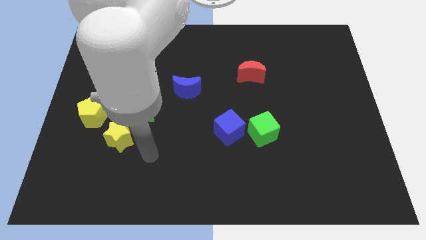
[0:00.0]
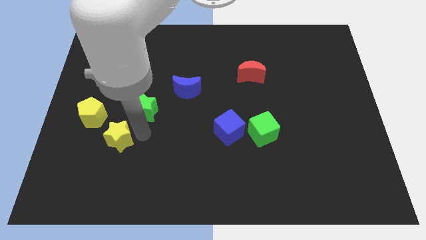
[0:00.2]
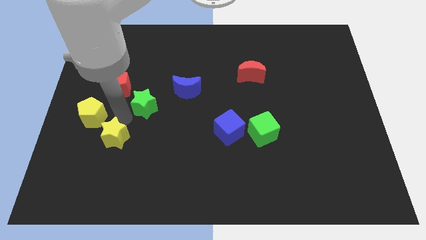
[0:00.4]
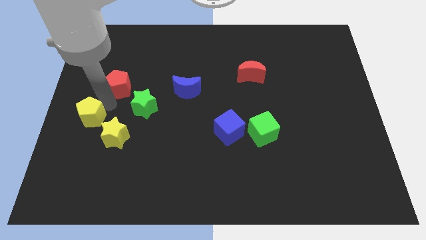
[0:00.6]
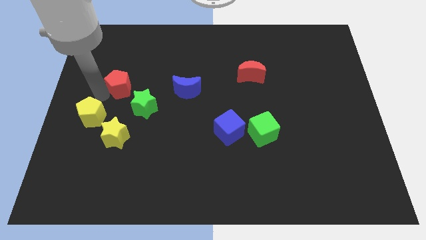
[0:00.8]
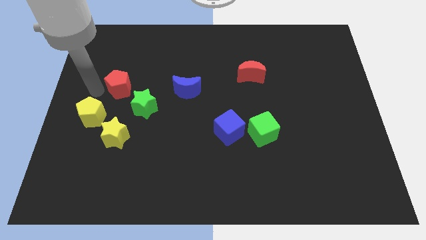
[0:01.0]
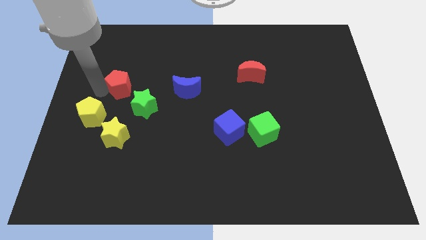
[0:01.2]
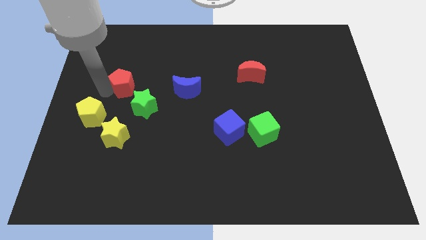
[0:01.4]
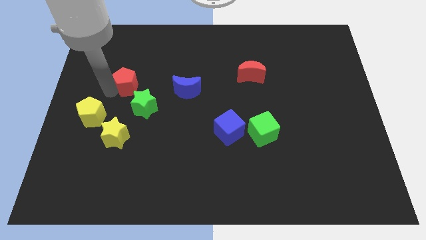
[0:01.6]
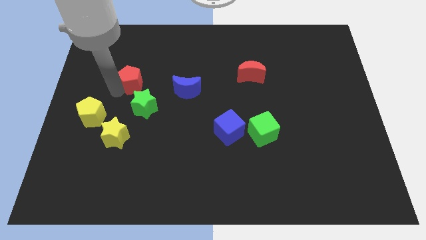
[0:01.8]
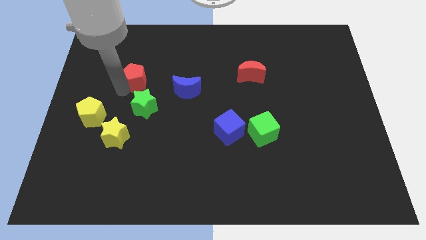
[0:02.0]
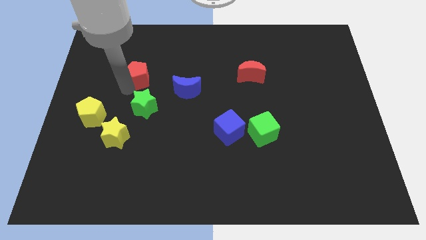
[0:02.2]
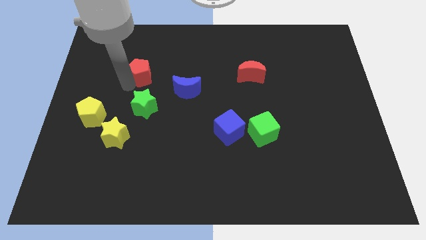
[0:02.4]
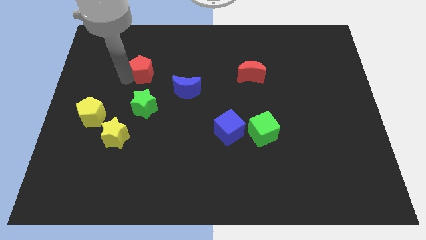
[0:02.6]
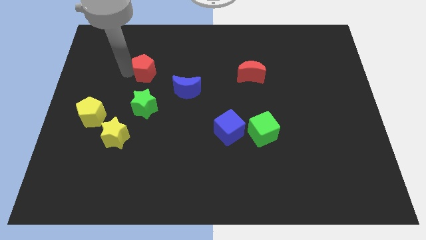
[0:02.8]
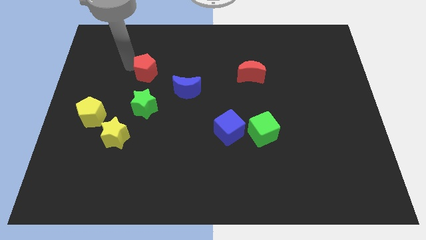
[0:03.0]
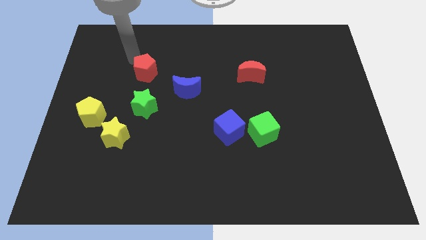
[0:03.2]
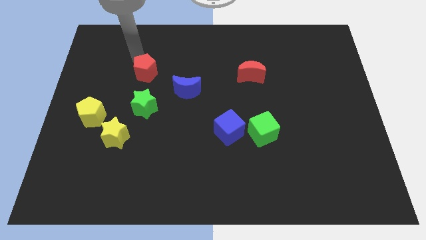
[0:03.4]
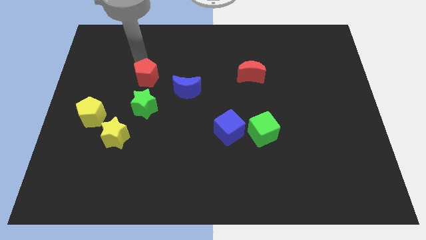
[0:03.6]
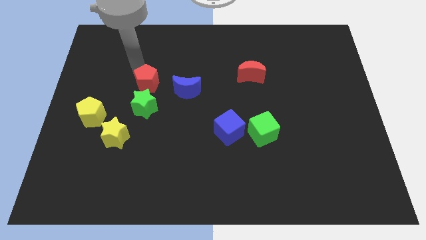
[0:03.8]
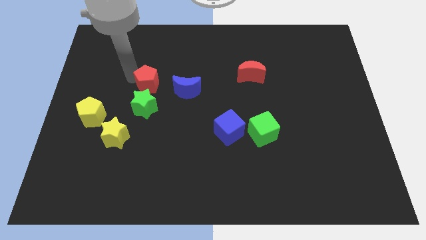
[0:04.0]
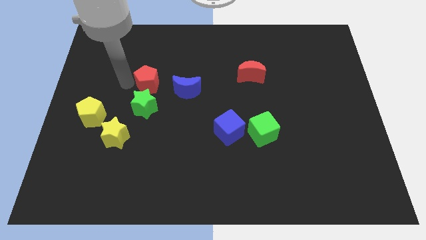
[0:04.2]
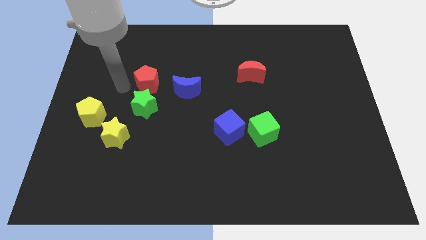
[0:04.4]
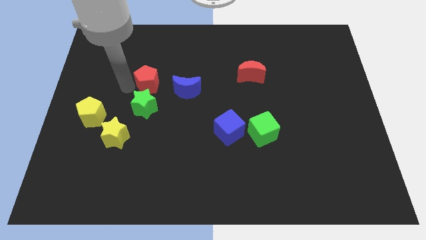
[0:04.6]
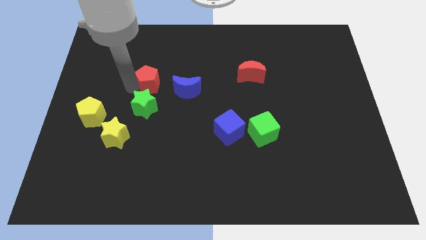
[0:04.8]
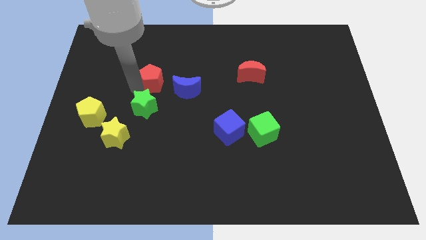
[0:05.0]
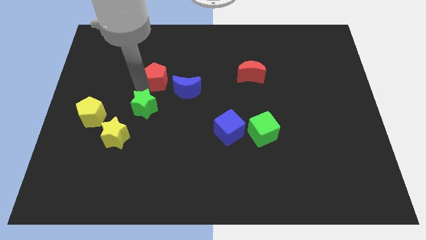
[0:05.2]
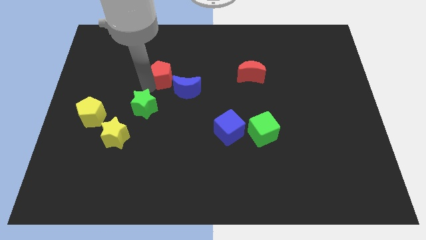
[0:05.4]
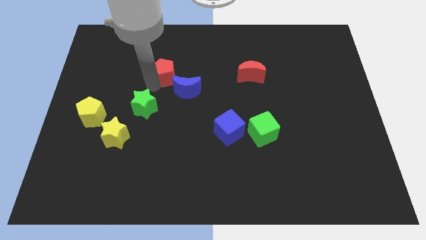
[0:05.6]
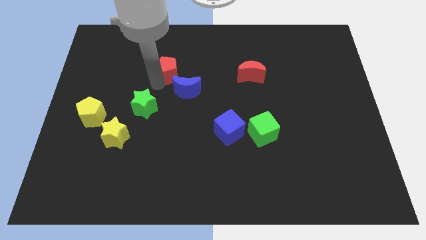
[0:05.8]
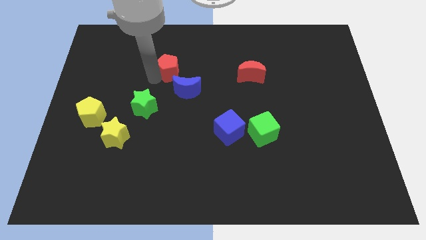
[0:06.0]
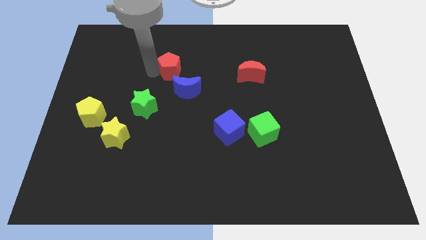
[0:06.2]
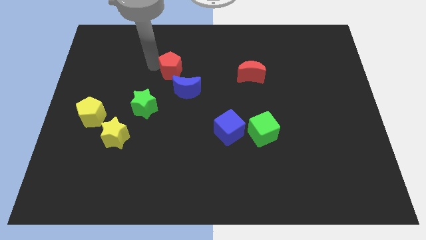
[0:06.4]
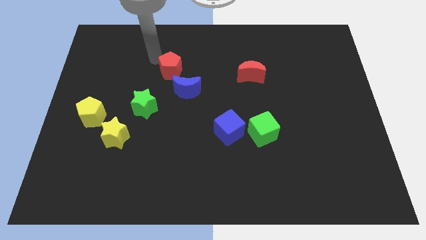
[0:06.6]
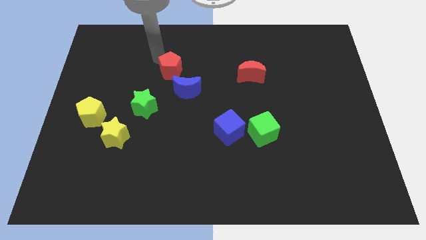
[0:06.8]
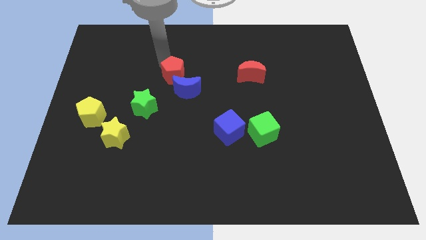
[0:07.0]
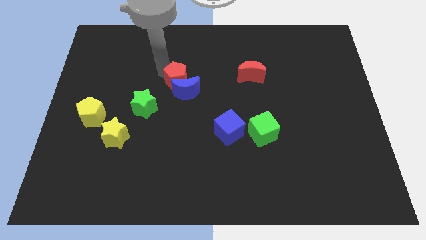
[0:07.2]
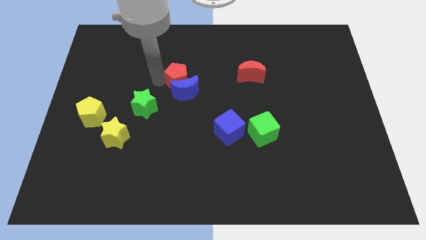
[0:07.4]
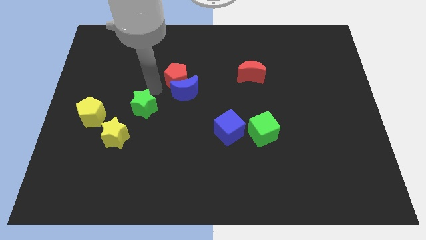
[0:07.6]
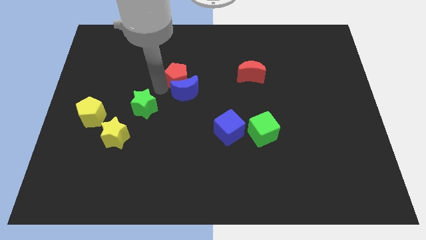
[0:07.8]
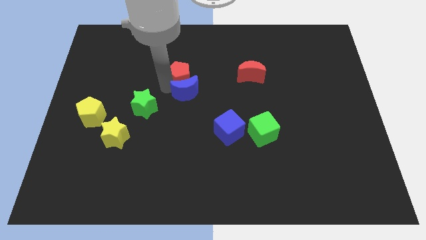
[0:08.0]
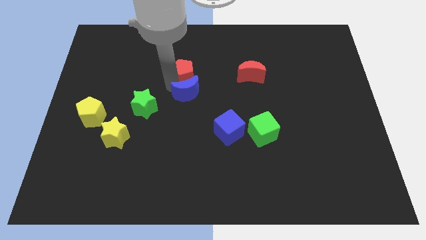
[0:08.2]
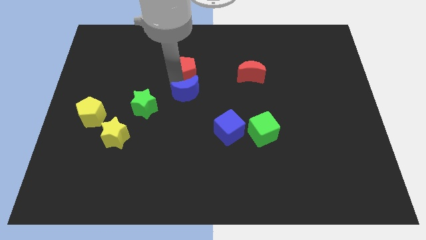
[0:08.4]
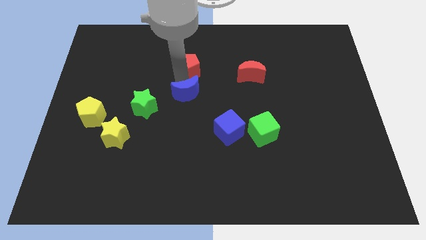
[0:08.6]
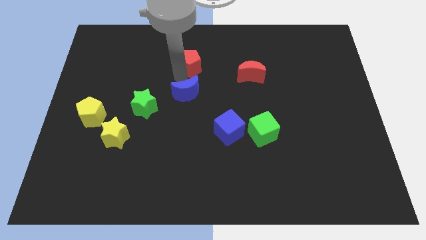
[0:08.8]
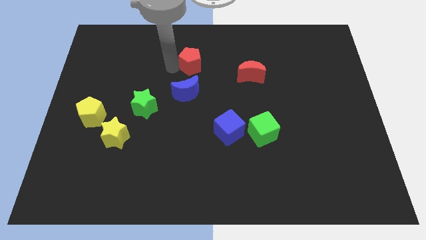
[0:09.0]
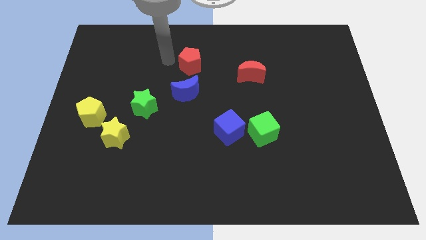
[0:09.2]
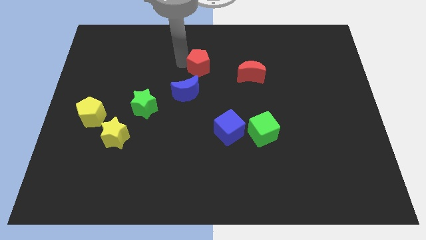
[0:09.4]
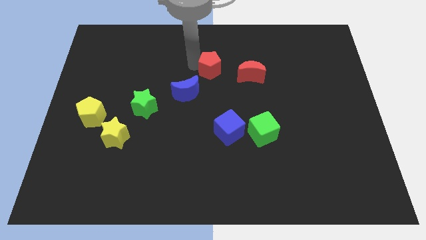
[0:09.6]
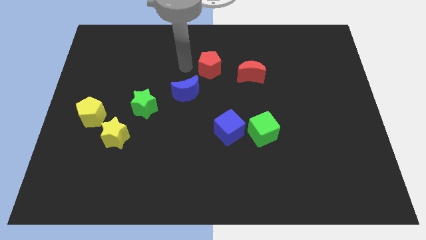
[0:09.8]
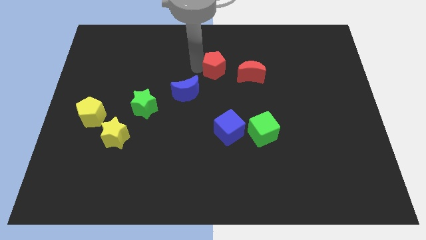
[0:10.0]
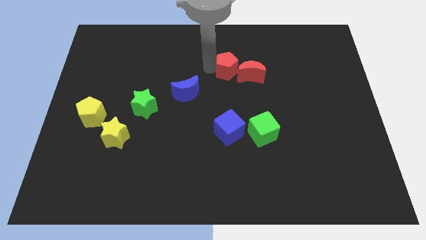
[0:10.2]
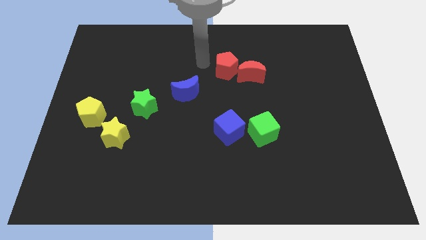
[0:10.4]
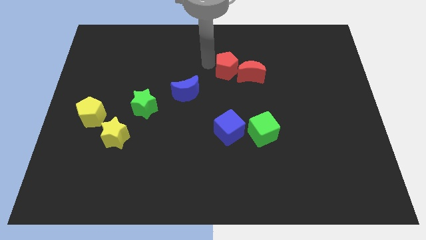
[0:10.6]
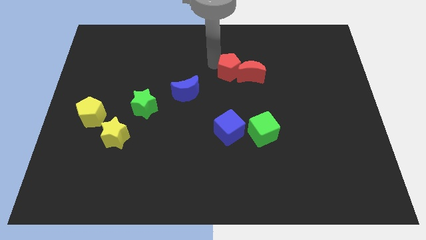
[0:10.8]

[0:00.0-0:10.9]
push the red pentagon next to the red moon

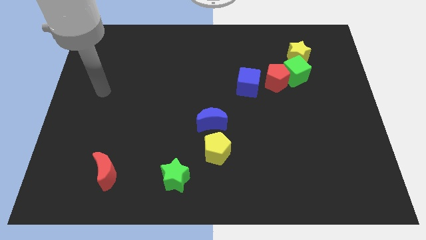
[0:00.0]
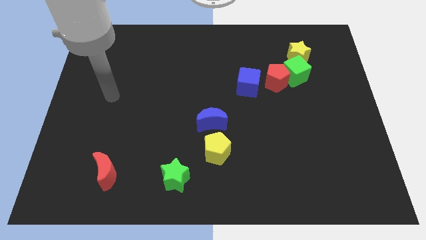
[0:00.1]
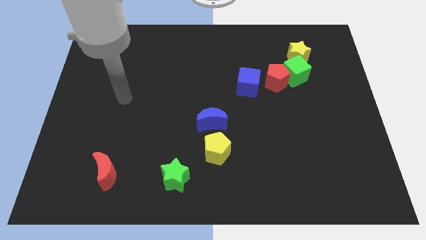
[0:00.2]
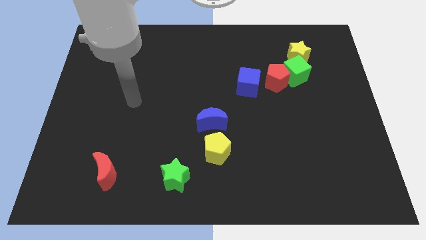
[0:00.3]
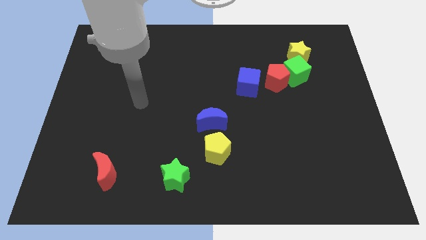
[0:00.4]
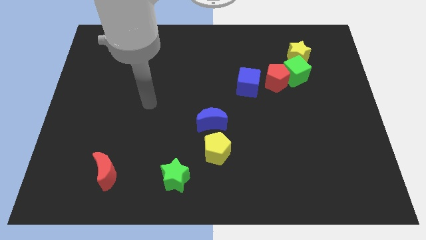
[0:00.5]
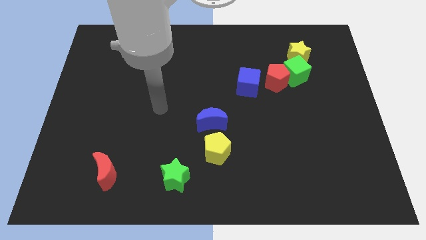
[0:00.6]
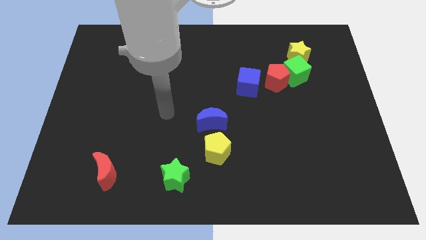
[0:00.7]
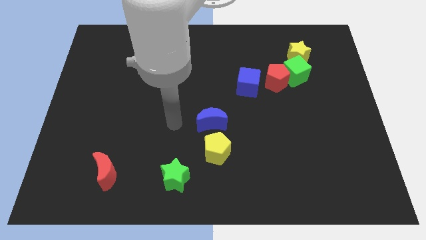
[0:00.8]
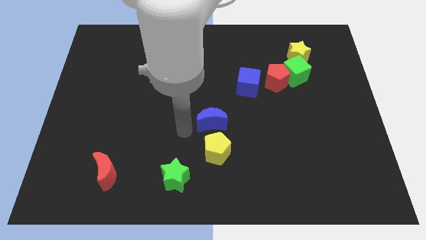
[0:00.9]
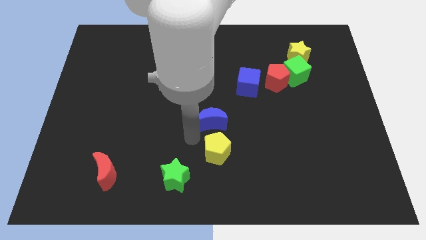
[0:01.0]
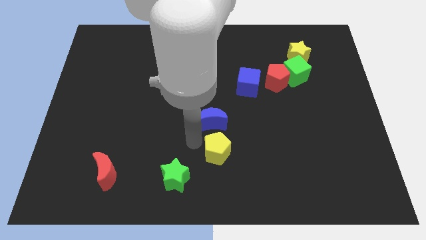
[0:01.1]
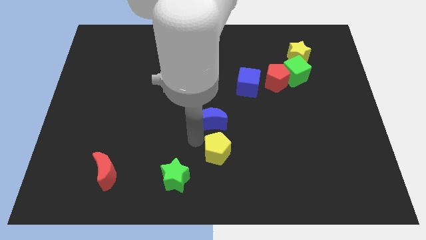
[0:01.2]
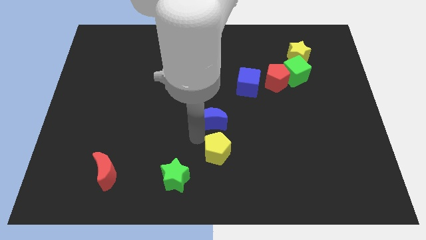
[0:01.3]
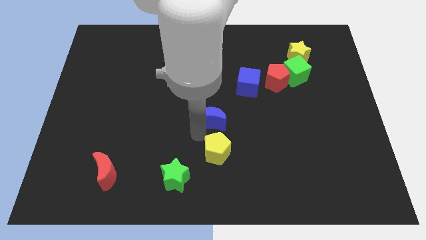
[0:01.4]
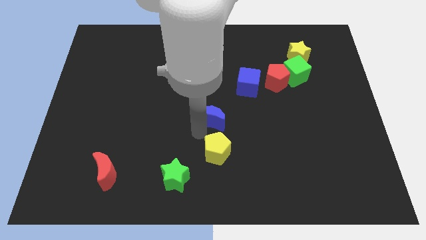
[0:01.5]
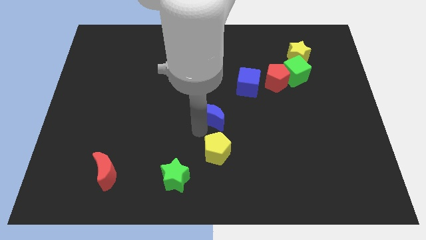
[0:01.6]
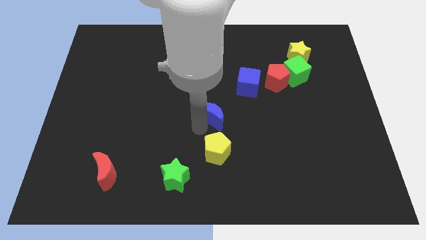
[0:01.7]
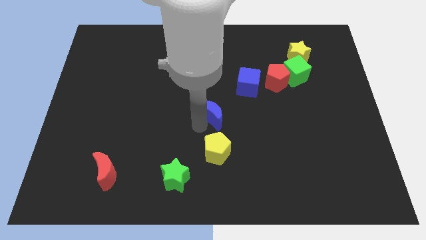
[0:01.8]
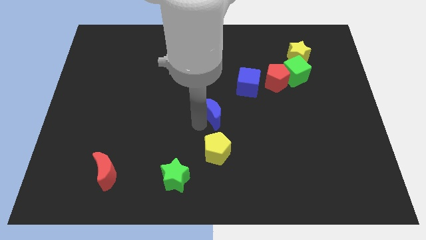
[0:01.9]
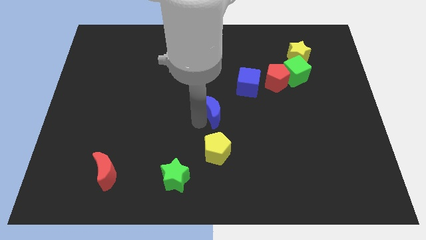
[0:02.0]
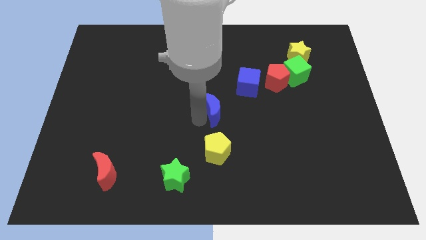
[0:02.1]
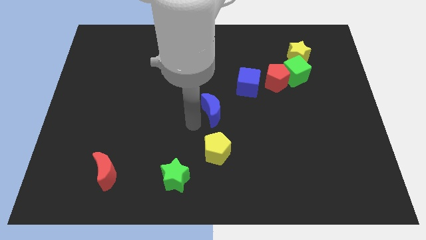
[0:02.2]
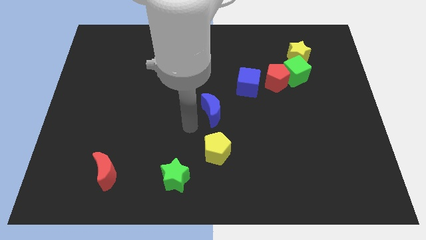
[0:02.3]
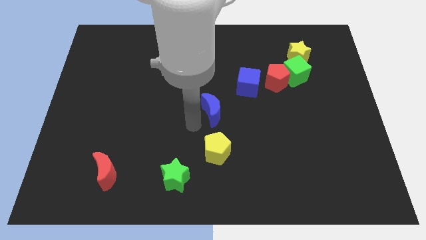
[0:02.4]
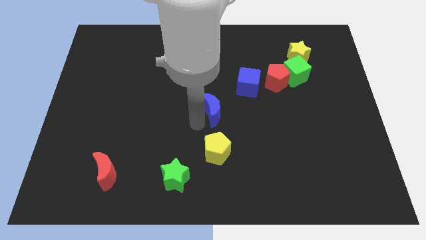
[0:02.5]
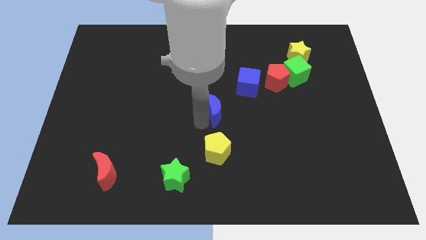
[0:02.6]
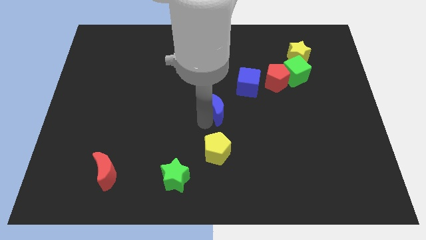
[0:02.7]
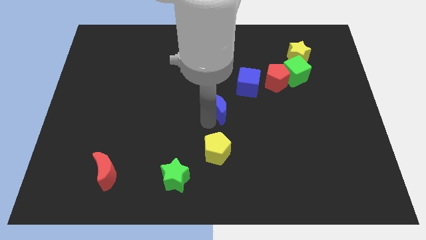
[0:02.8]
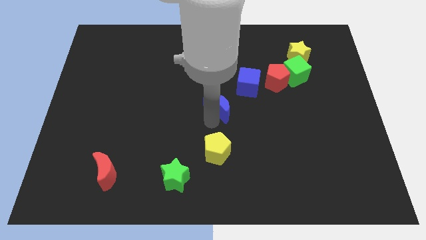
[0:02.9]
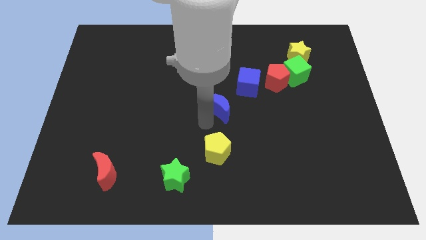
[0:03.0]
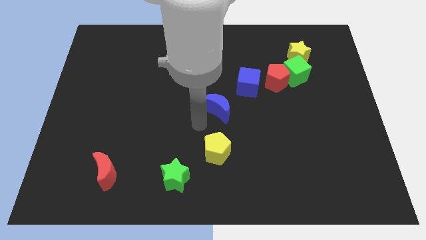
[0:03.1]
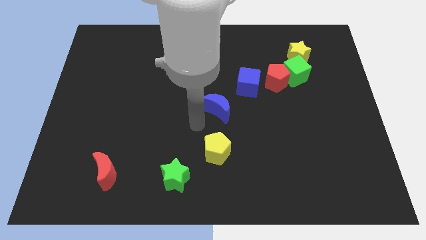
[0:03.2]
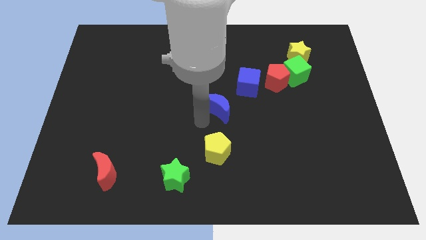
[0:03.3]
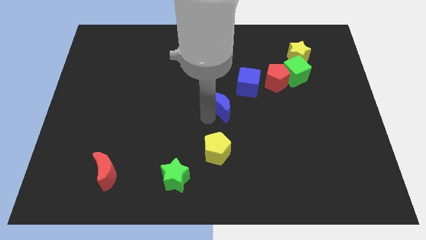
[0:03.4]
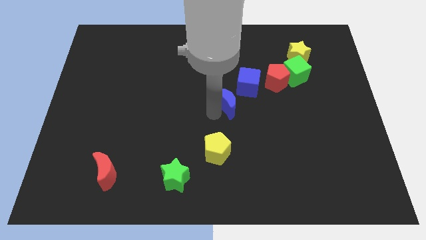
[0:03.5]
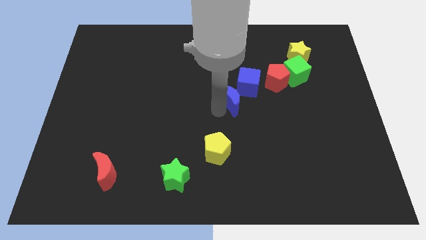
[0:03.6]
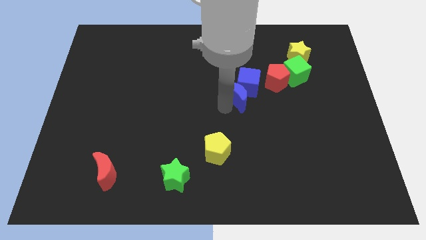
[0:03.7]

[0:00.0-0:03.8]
slide the blue moon close to the blue cube
